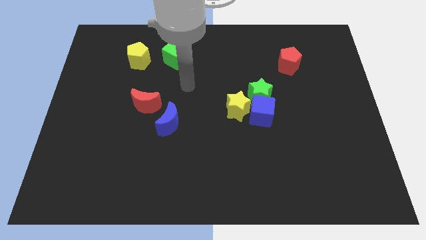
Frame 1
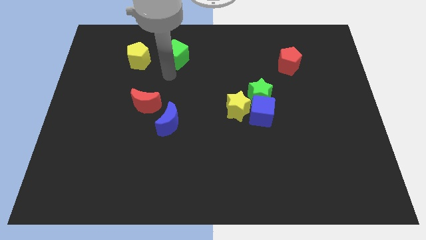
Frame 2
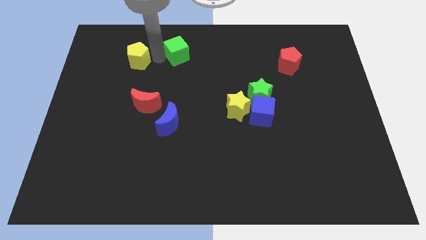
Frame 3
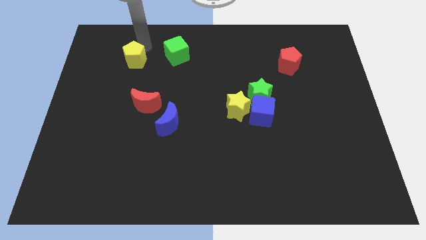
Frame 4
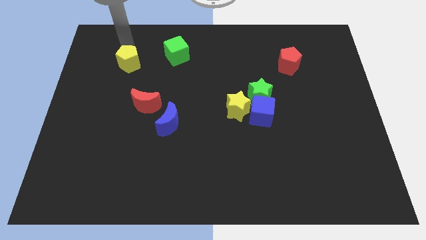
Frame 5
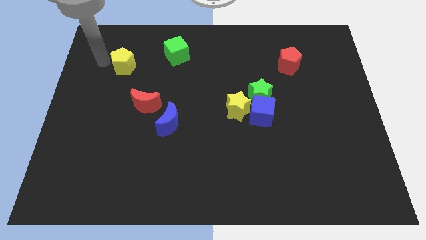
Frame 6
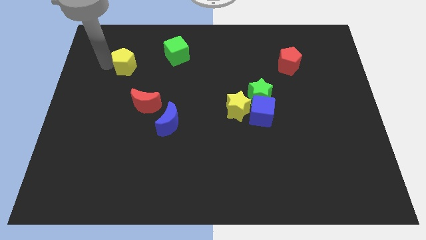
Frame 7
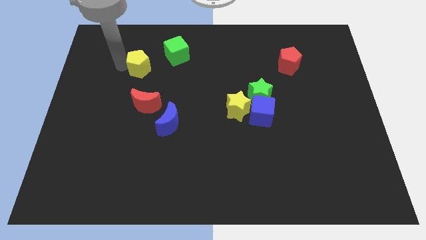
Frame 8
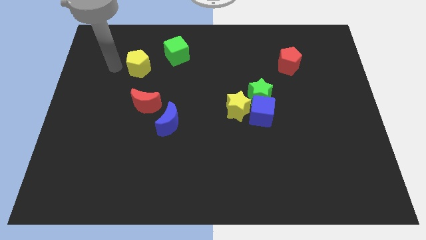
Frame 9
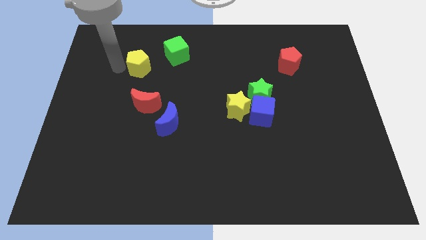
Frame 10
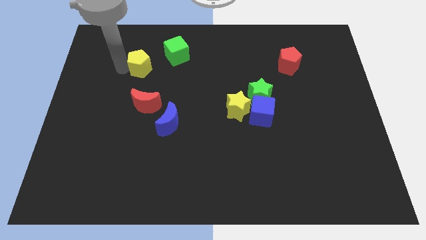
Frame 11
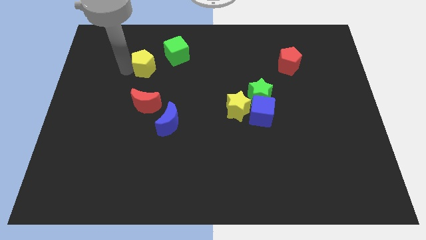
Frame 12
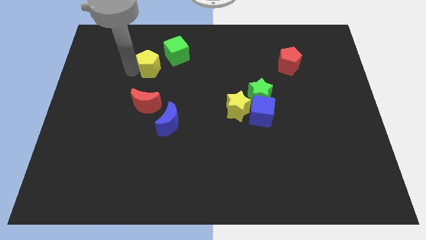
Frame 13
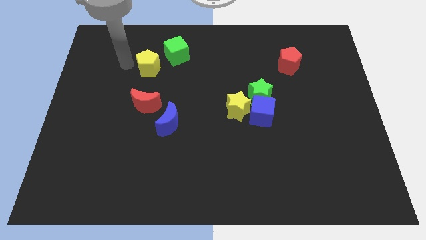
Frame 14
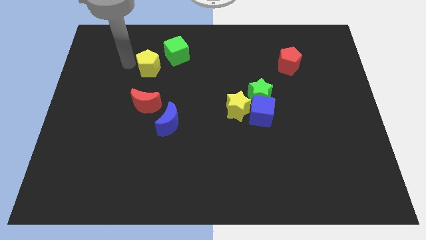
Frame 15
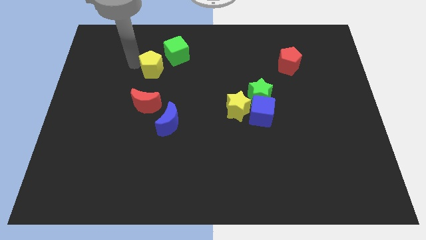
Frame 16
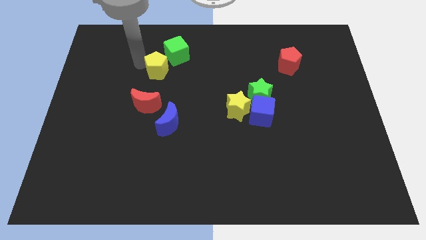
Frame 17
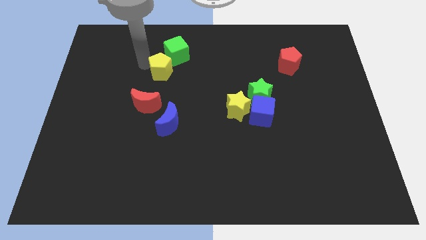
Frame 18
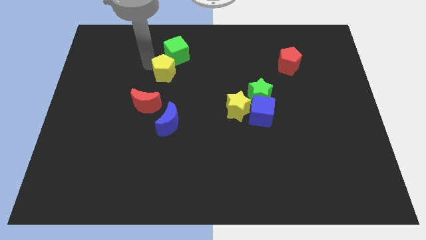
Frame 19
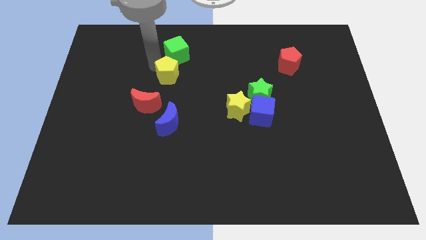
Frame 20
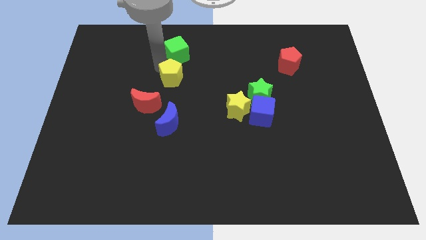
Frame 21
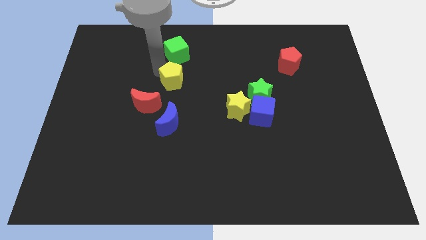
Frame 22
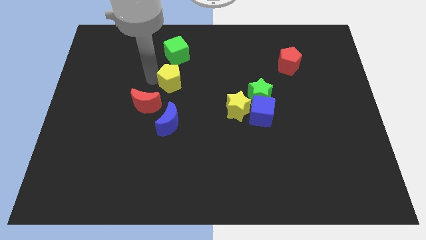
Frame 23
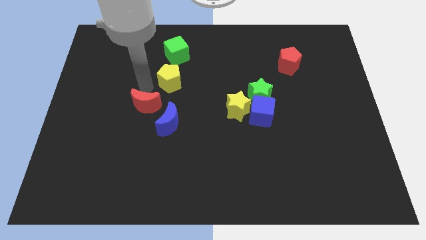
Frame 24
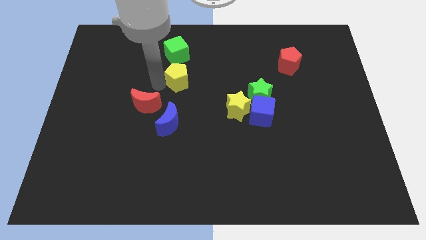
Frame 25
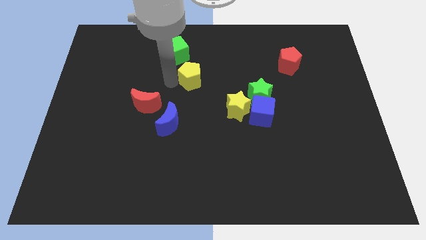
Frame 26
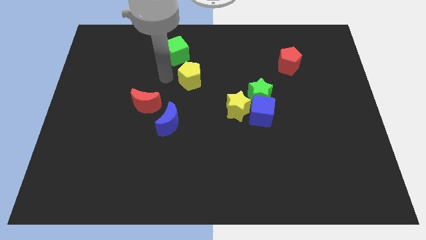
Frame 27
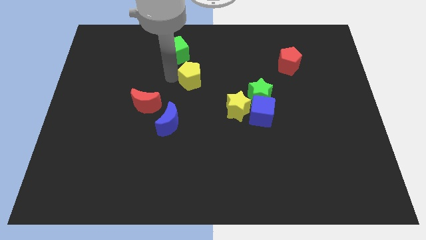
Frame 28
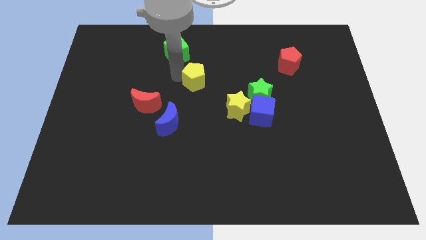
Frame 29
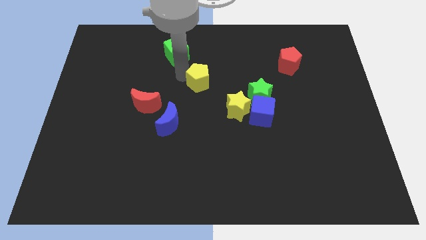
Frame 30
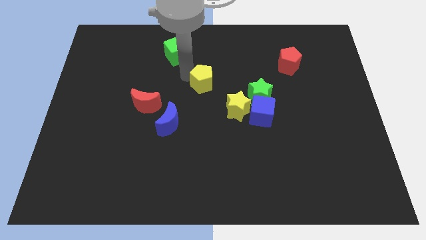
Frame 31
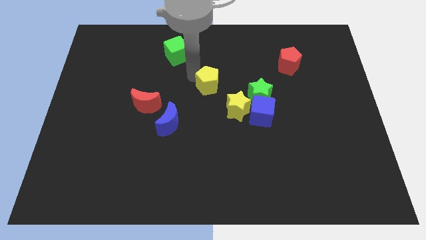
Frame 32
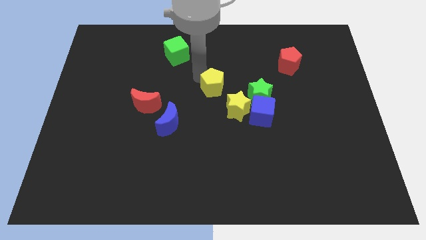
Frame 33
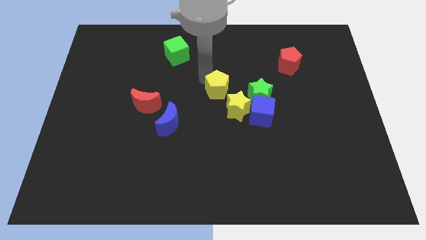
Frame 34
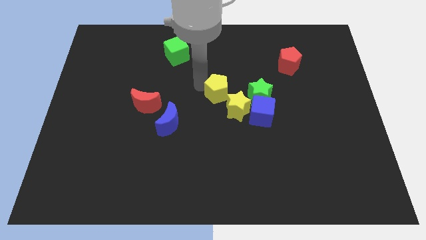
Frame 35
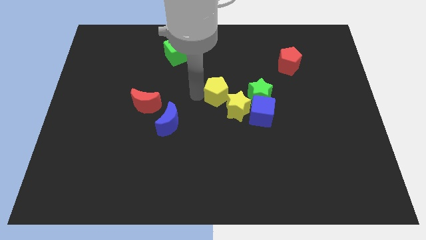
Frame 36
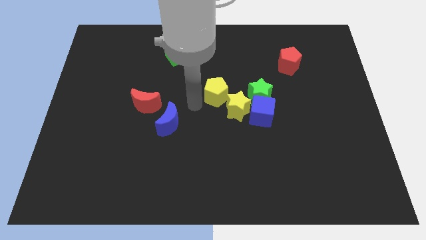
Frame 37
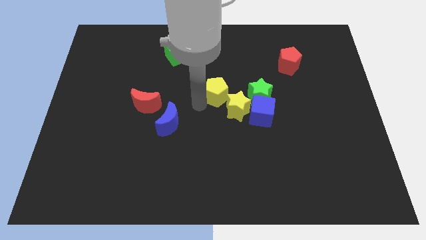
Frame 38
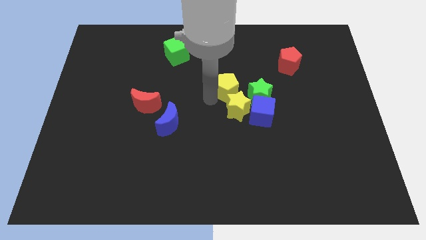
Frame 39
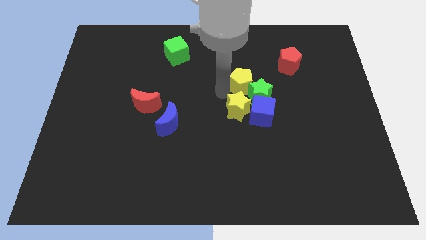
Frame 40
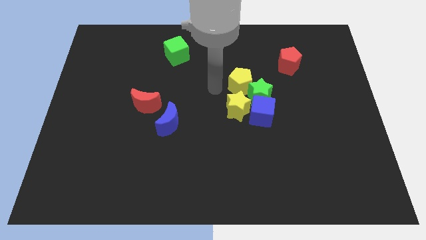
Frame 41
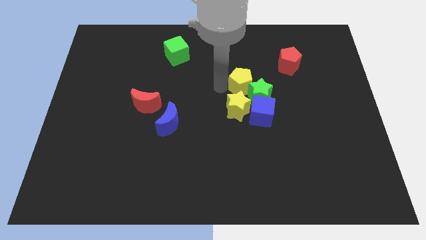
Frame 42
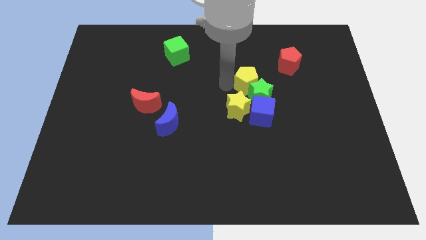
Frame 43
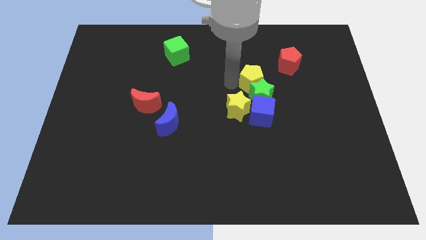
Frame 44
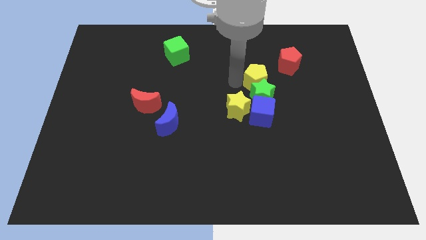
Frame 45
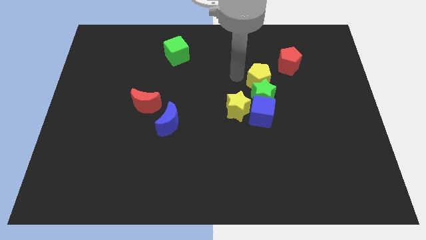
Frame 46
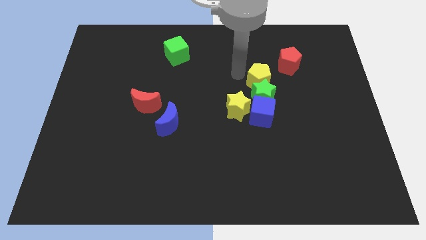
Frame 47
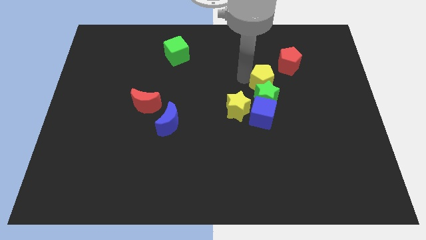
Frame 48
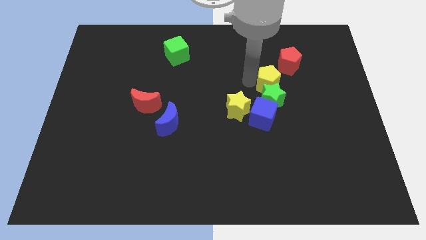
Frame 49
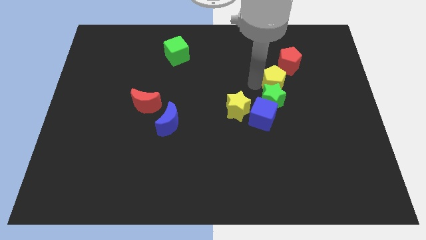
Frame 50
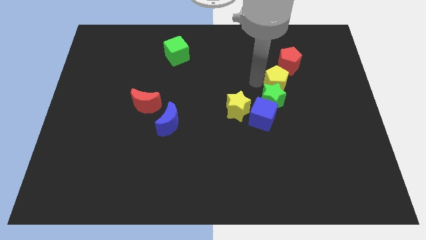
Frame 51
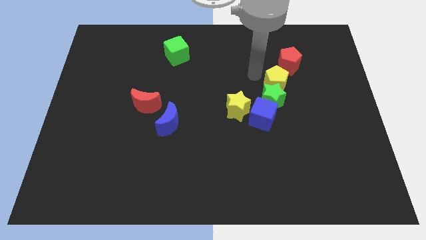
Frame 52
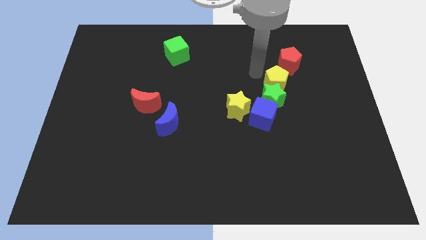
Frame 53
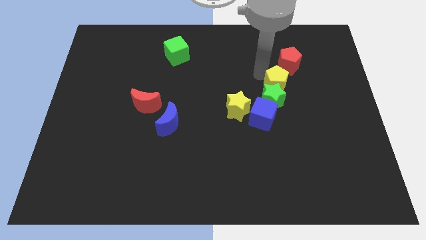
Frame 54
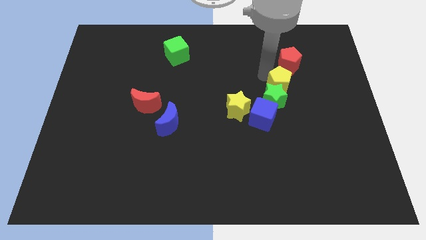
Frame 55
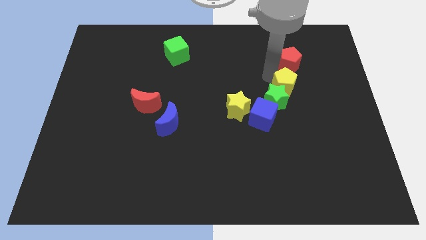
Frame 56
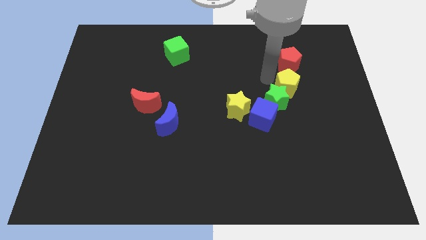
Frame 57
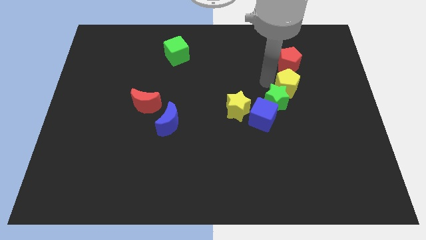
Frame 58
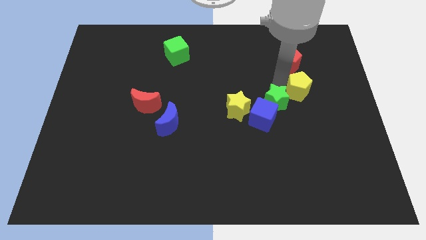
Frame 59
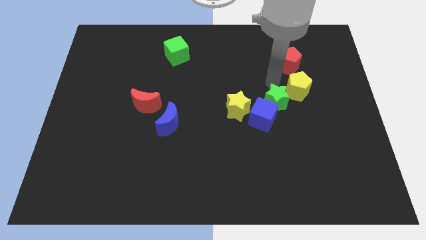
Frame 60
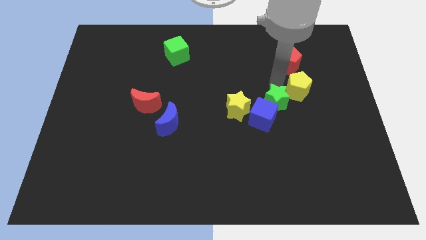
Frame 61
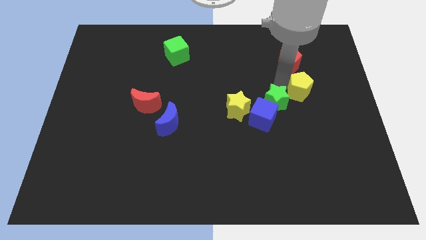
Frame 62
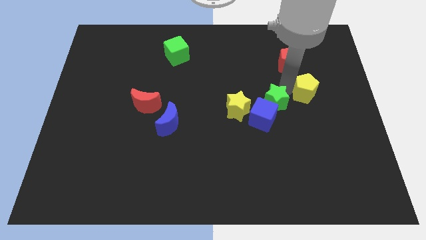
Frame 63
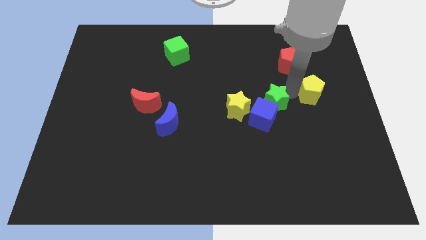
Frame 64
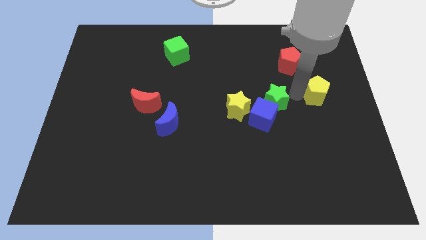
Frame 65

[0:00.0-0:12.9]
push the yellow pentagon to the center right
